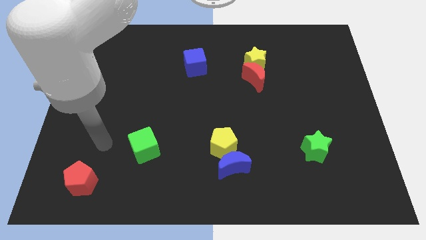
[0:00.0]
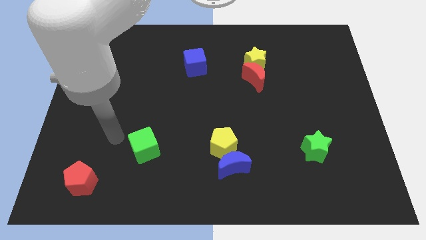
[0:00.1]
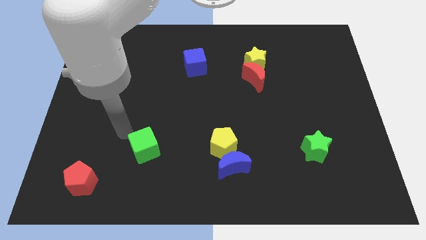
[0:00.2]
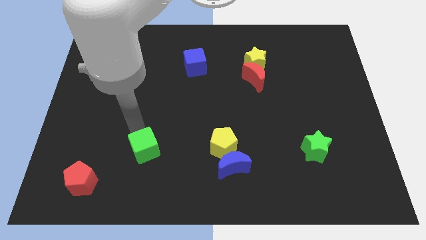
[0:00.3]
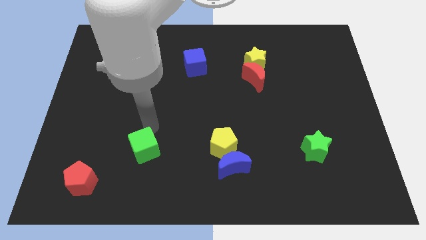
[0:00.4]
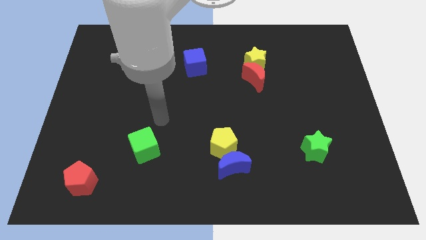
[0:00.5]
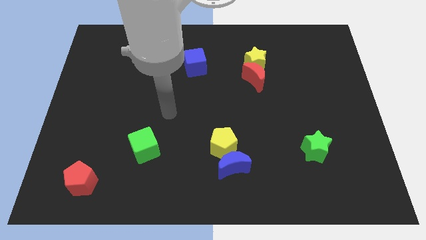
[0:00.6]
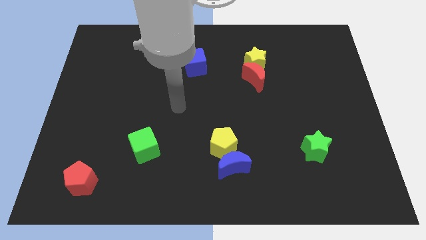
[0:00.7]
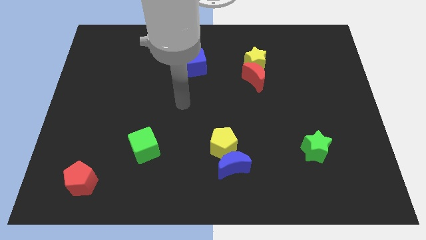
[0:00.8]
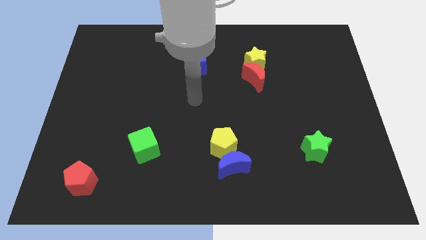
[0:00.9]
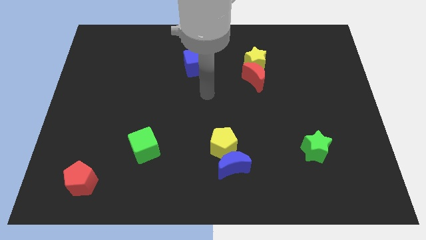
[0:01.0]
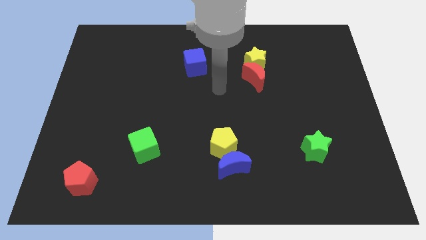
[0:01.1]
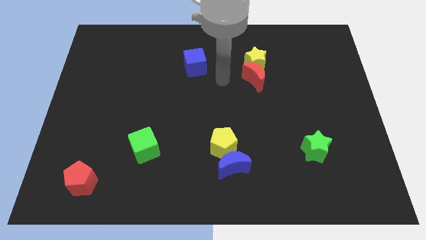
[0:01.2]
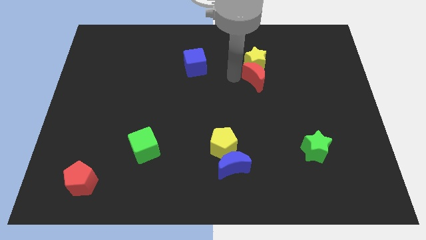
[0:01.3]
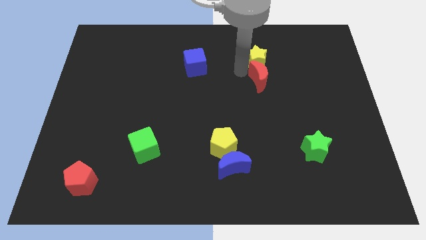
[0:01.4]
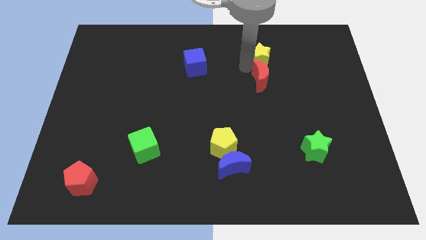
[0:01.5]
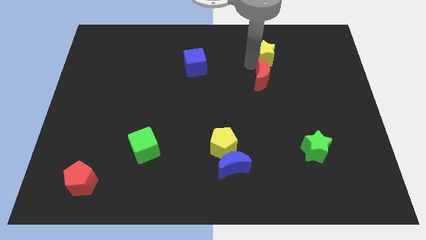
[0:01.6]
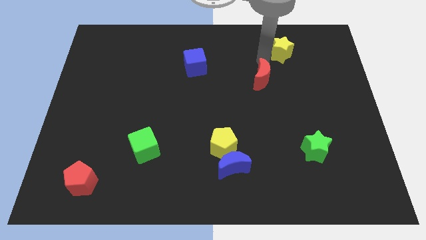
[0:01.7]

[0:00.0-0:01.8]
separate the red moon from the yellow star

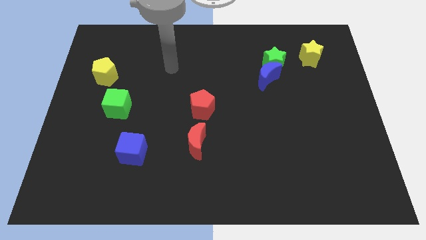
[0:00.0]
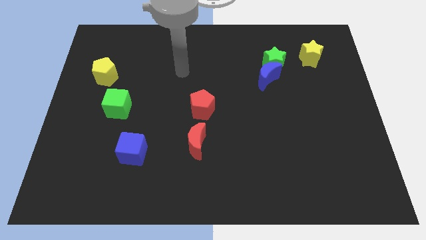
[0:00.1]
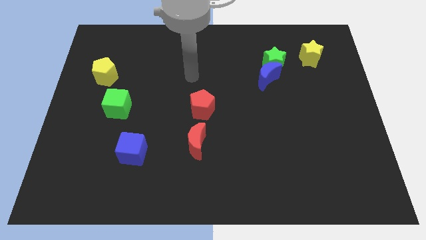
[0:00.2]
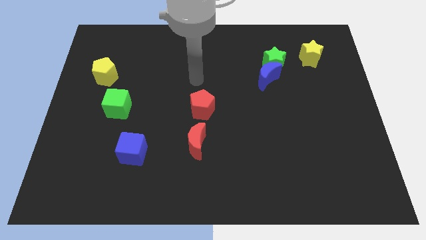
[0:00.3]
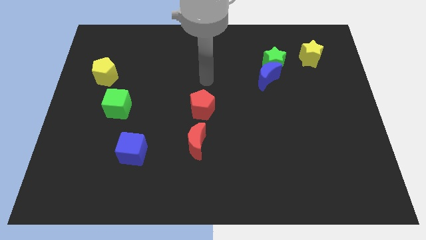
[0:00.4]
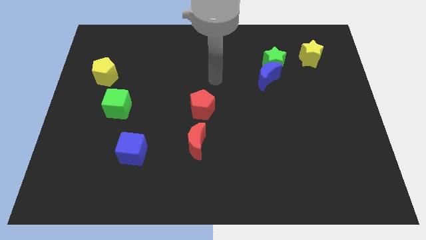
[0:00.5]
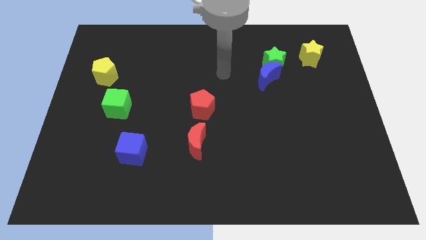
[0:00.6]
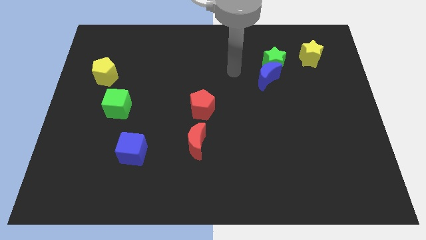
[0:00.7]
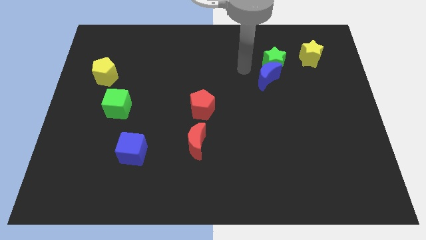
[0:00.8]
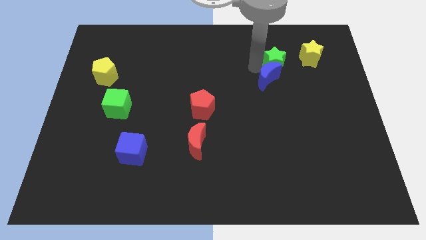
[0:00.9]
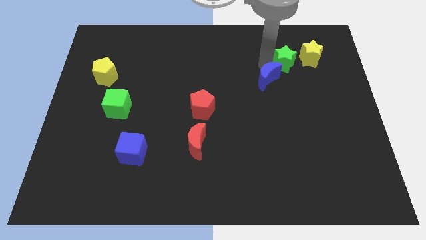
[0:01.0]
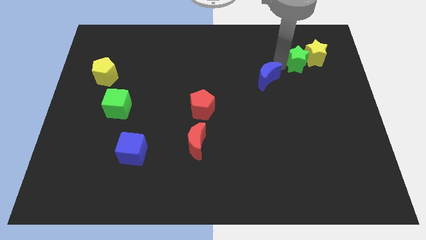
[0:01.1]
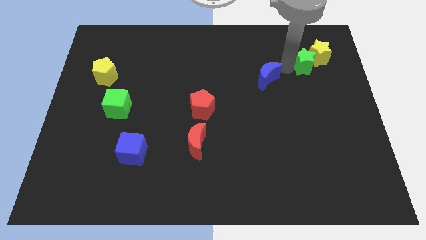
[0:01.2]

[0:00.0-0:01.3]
move the blue moon away from the green star

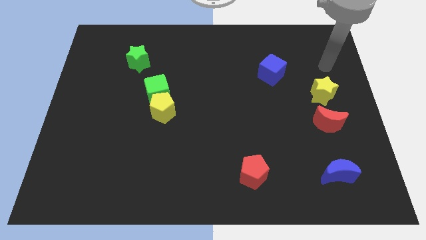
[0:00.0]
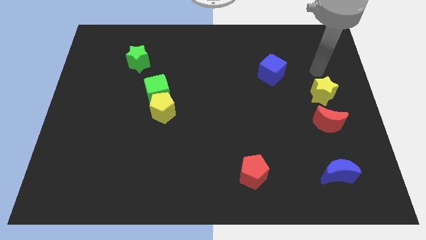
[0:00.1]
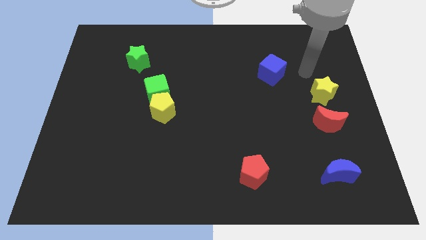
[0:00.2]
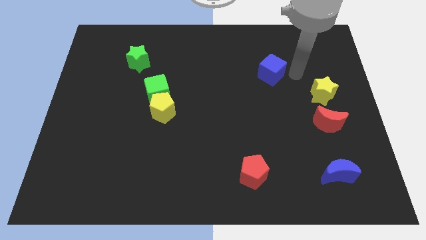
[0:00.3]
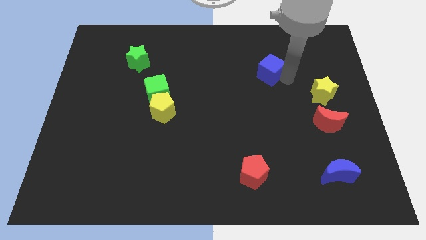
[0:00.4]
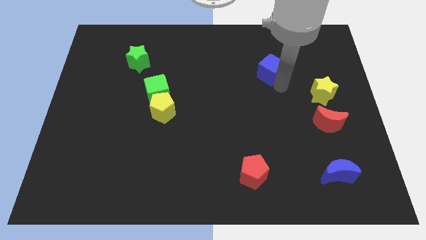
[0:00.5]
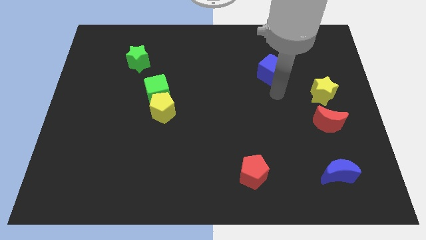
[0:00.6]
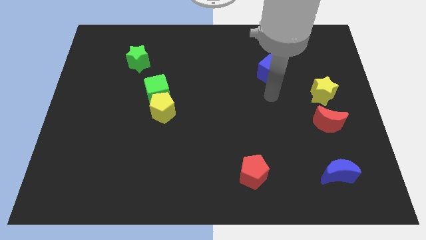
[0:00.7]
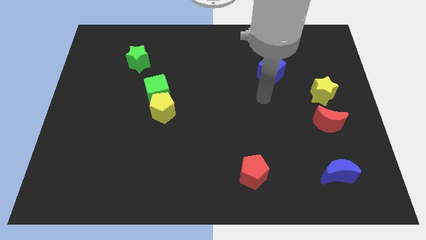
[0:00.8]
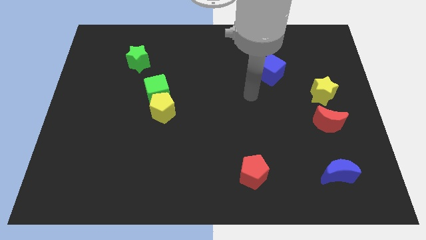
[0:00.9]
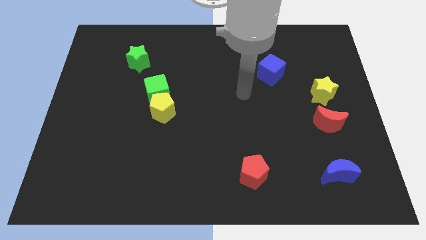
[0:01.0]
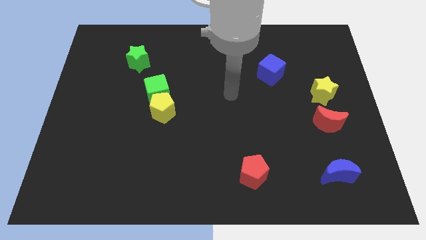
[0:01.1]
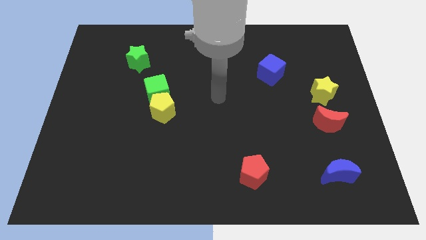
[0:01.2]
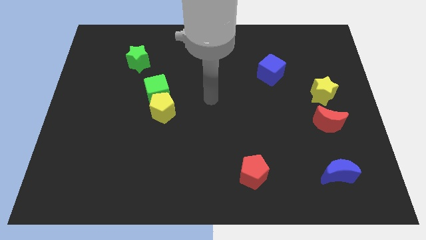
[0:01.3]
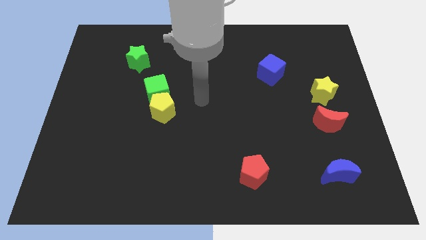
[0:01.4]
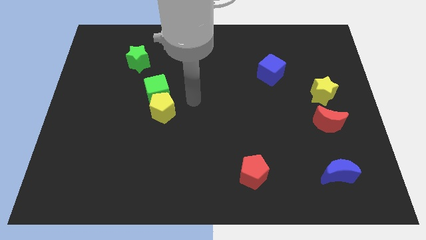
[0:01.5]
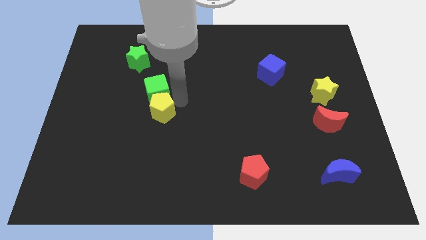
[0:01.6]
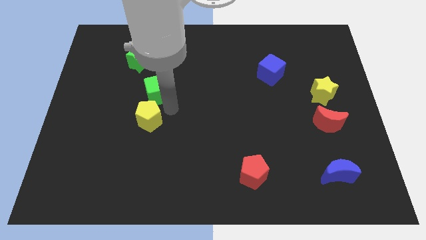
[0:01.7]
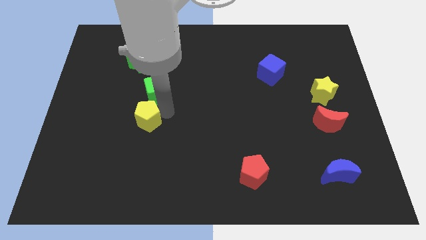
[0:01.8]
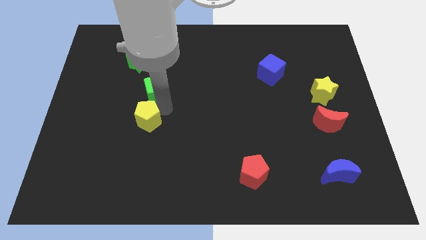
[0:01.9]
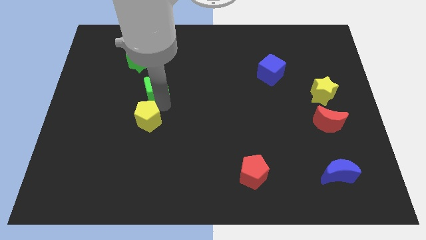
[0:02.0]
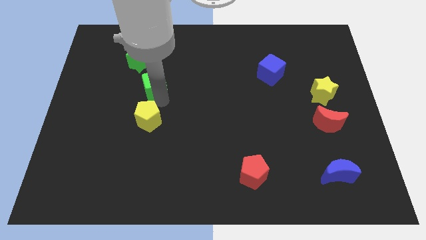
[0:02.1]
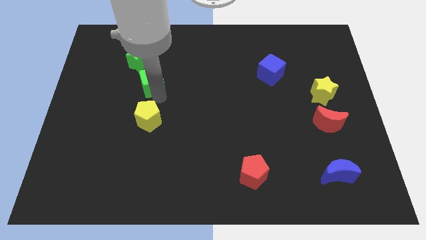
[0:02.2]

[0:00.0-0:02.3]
pull the green cube apart from the yellow pentagon

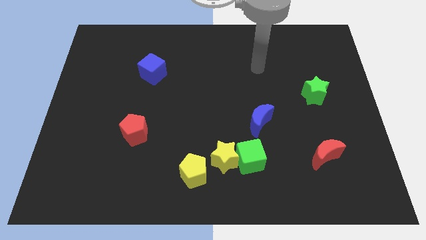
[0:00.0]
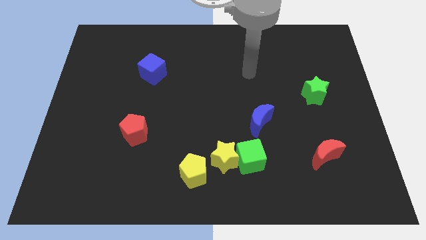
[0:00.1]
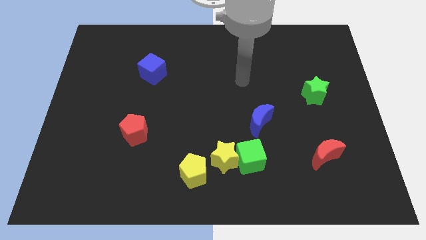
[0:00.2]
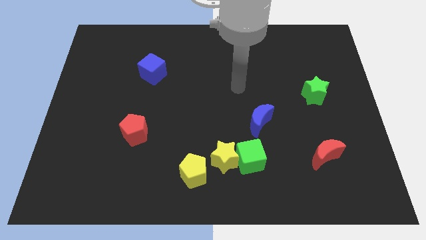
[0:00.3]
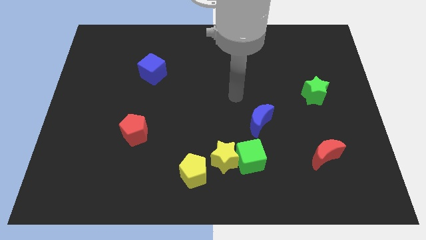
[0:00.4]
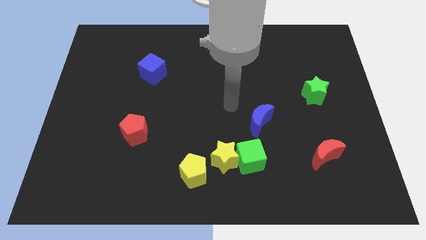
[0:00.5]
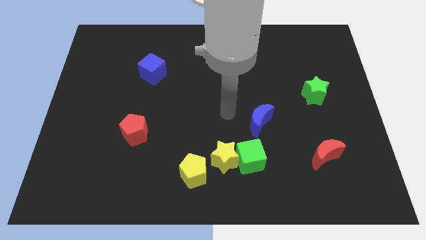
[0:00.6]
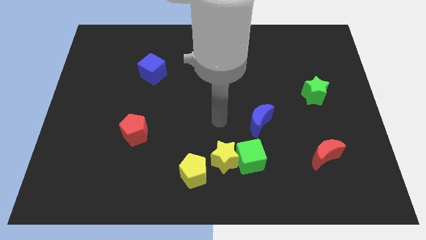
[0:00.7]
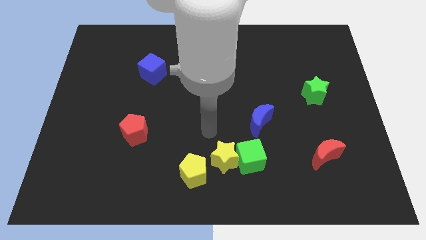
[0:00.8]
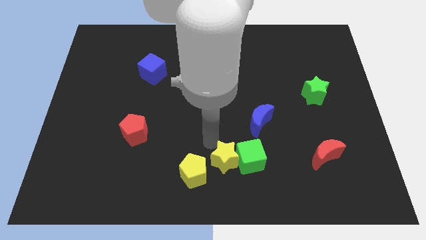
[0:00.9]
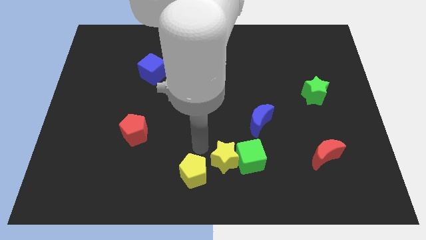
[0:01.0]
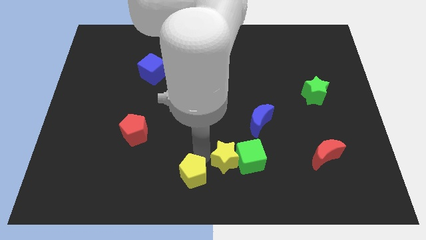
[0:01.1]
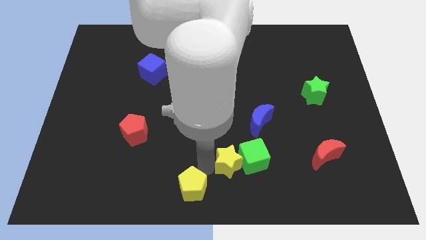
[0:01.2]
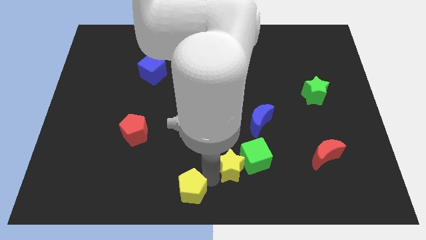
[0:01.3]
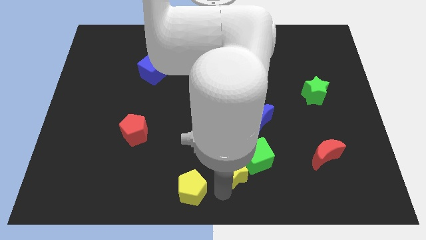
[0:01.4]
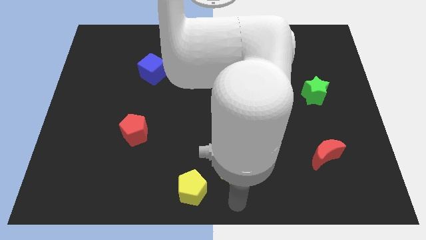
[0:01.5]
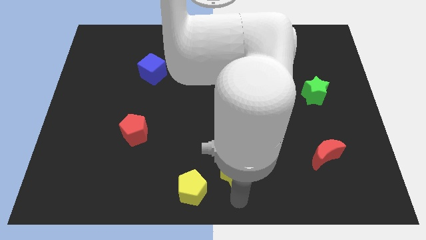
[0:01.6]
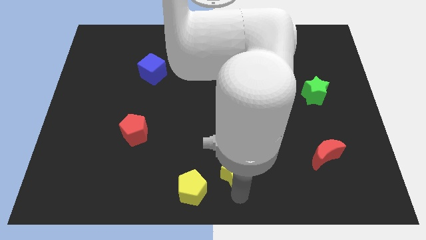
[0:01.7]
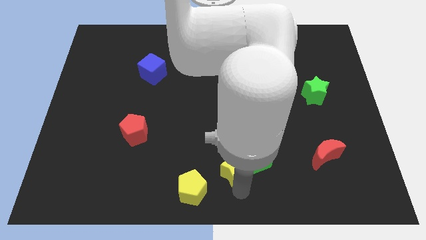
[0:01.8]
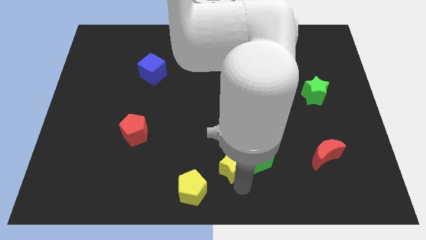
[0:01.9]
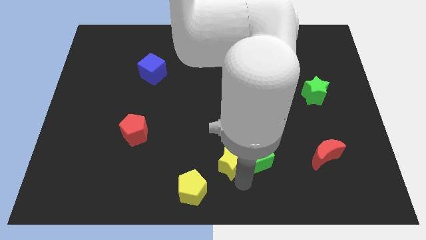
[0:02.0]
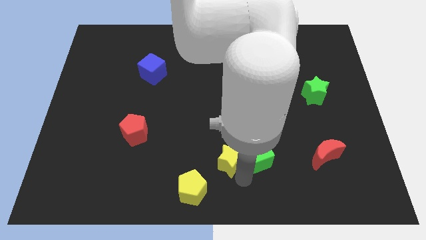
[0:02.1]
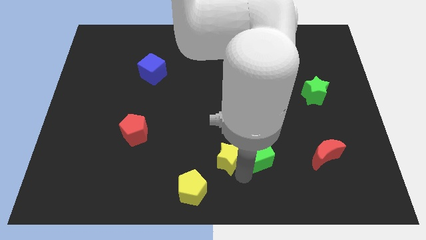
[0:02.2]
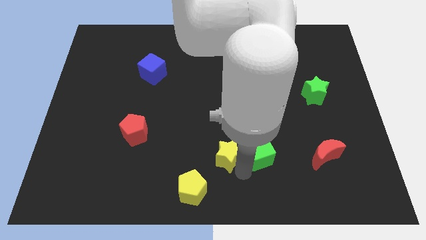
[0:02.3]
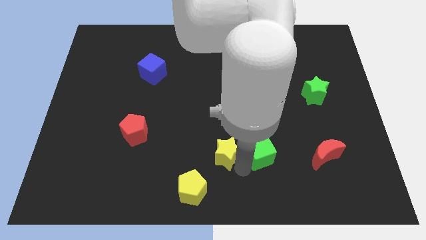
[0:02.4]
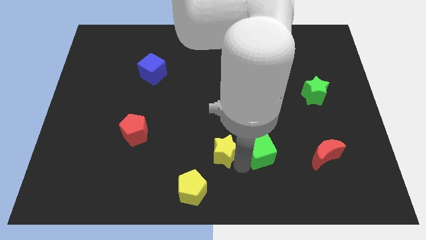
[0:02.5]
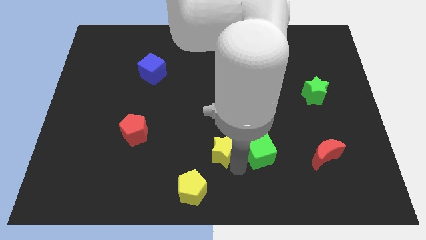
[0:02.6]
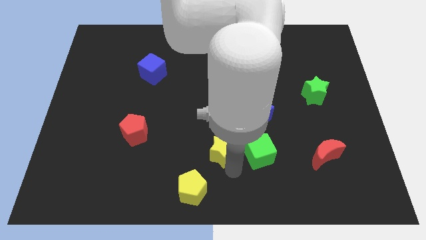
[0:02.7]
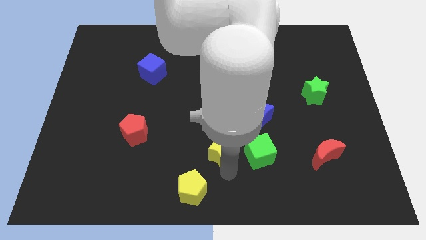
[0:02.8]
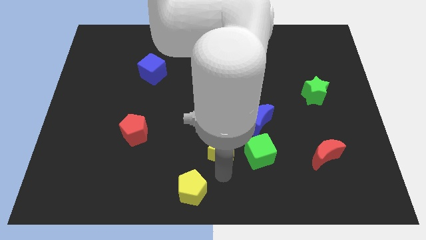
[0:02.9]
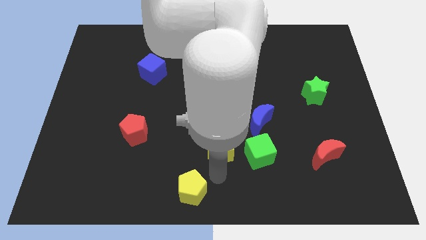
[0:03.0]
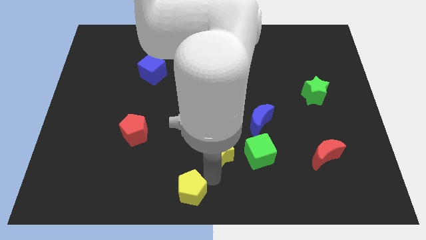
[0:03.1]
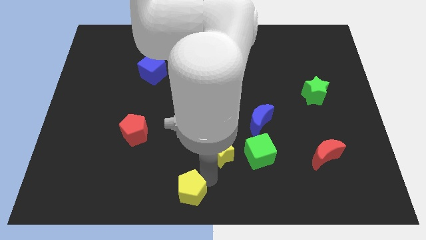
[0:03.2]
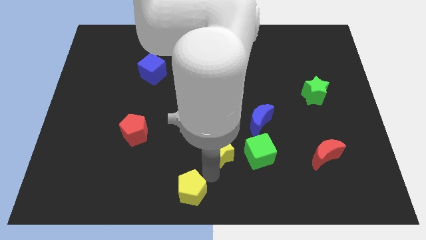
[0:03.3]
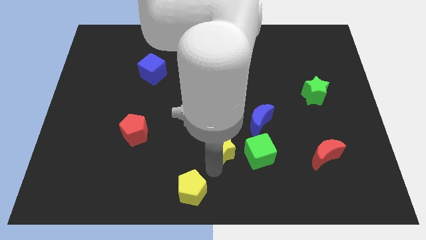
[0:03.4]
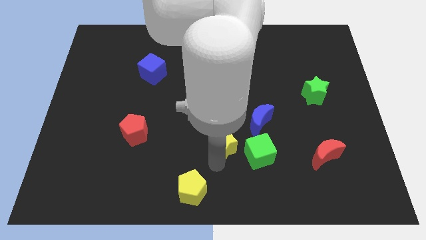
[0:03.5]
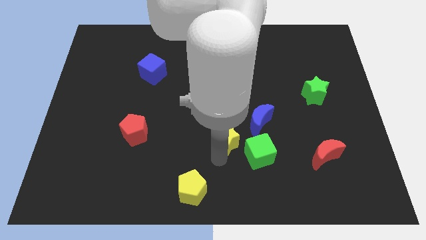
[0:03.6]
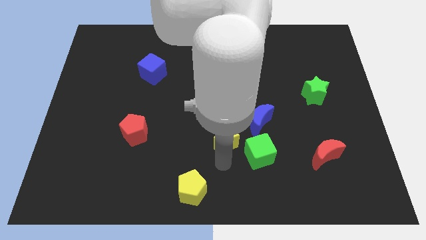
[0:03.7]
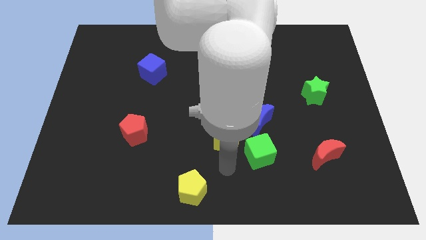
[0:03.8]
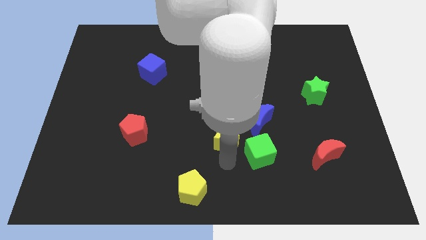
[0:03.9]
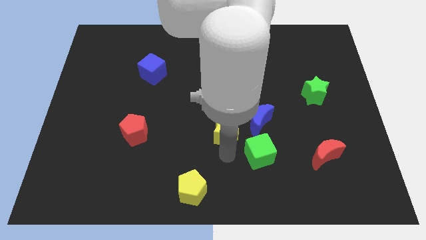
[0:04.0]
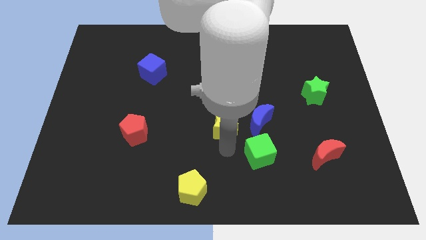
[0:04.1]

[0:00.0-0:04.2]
pull the yellow star apart from the green cube and yellow pentagon
